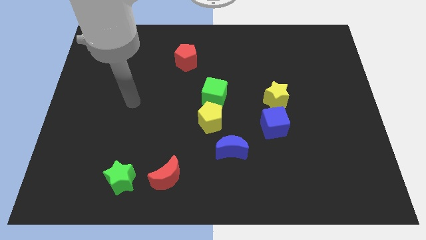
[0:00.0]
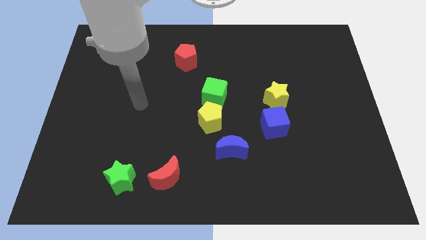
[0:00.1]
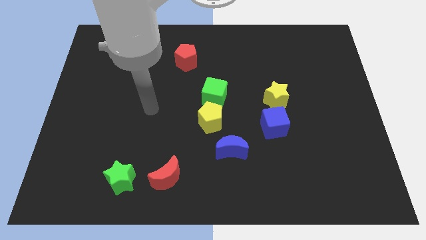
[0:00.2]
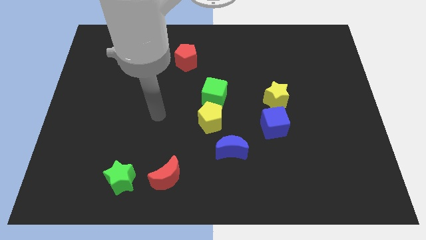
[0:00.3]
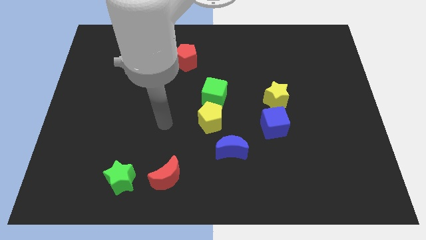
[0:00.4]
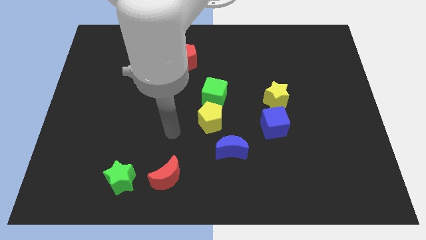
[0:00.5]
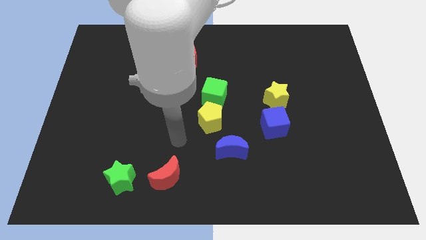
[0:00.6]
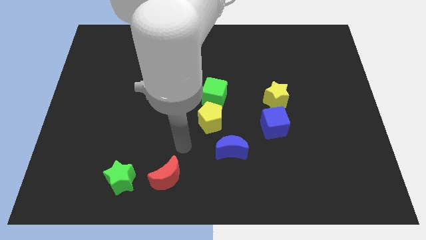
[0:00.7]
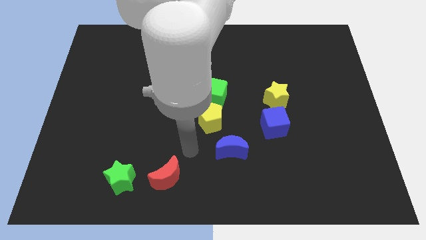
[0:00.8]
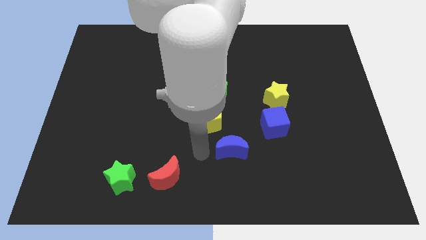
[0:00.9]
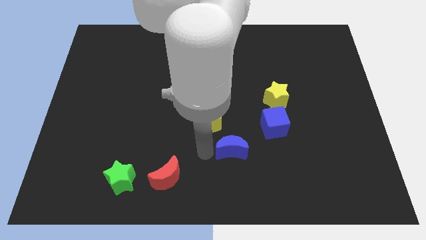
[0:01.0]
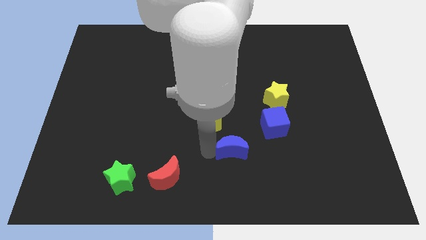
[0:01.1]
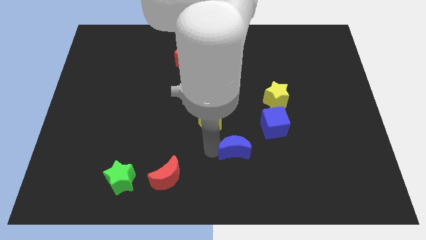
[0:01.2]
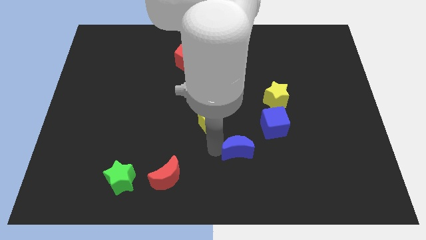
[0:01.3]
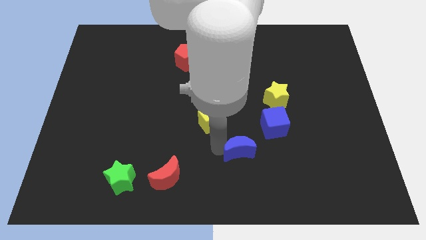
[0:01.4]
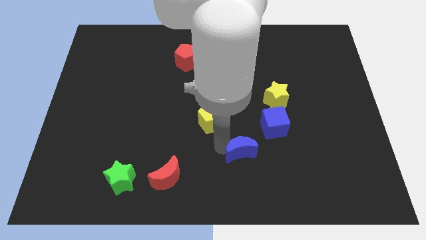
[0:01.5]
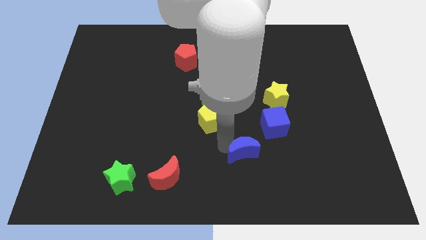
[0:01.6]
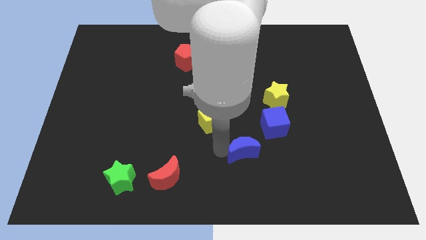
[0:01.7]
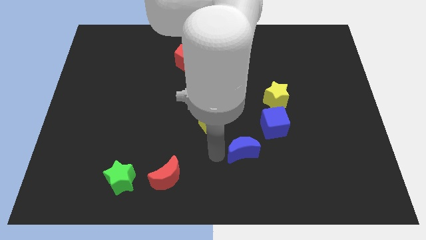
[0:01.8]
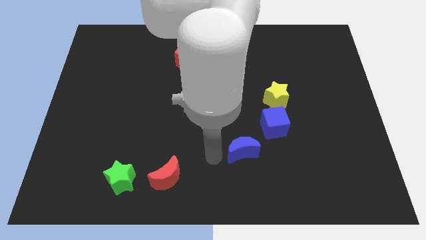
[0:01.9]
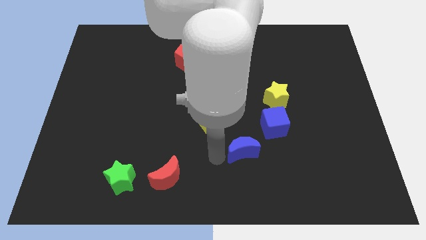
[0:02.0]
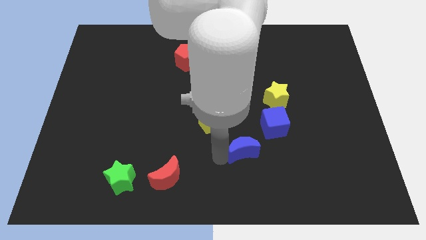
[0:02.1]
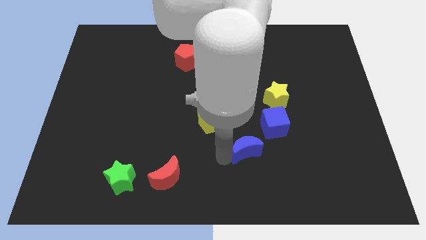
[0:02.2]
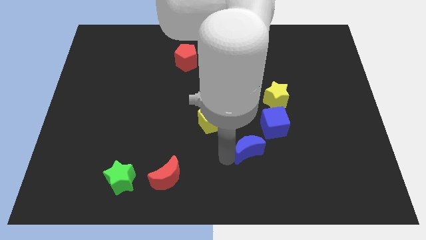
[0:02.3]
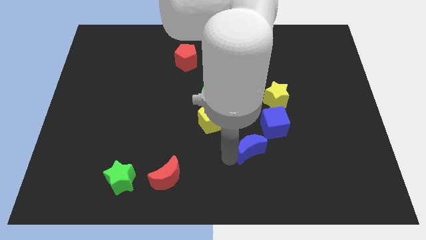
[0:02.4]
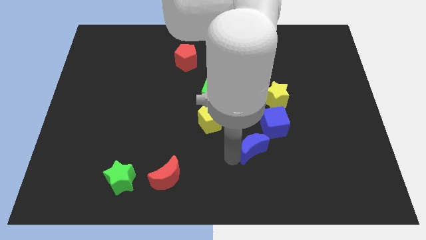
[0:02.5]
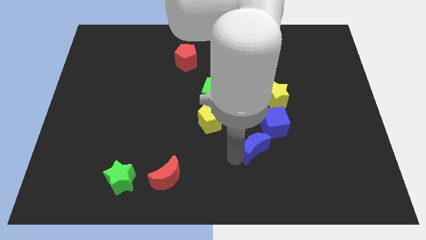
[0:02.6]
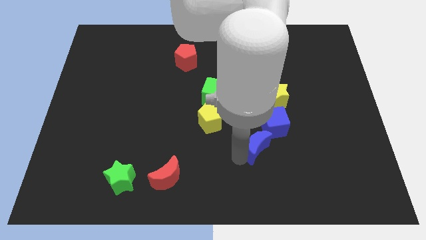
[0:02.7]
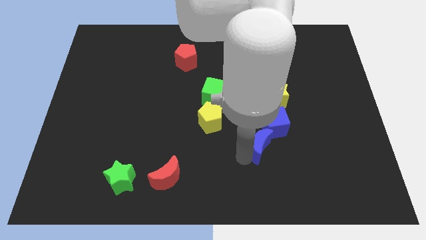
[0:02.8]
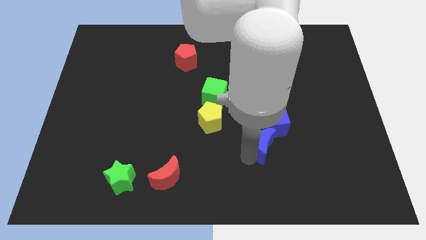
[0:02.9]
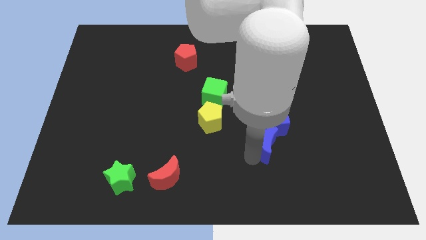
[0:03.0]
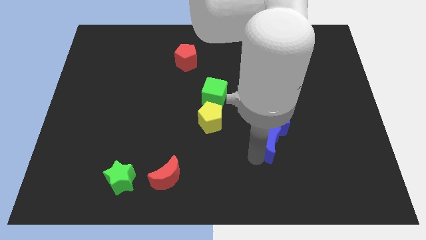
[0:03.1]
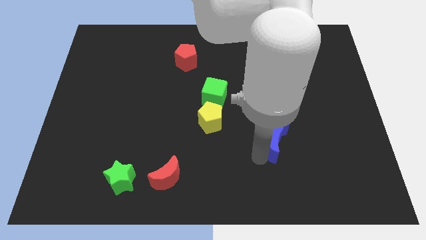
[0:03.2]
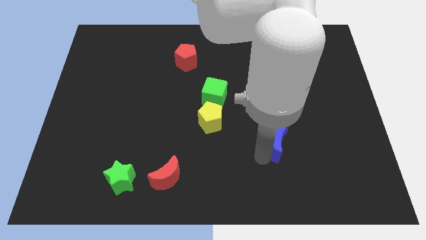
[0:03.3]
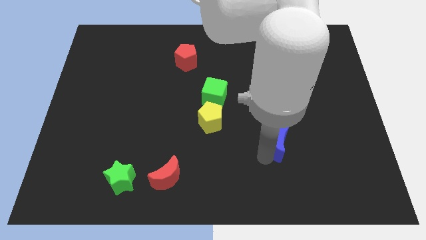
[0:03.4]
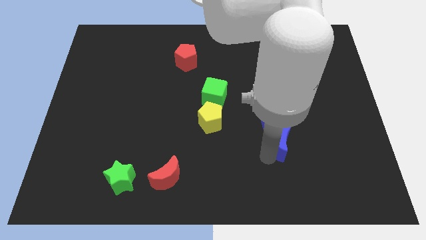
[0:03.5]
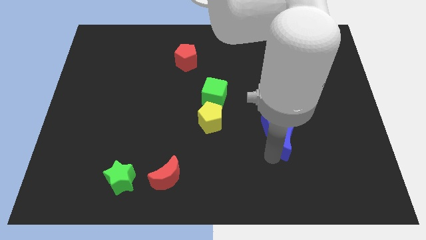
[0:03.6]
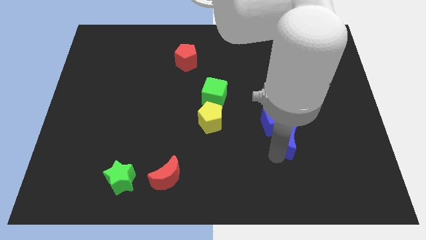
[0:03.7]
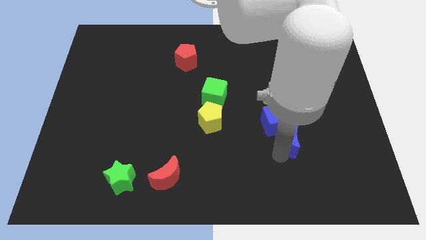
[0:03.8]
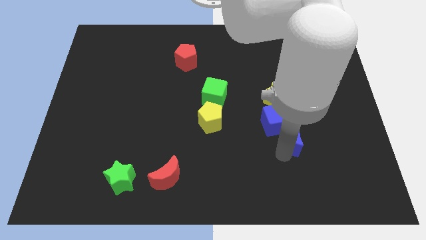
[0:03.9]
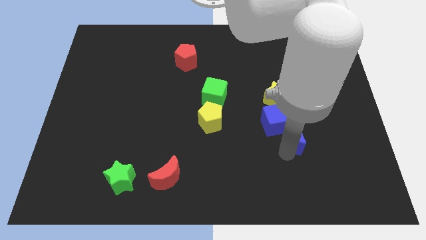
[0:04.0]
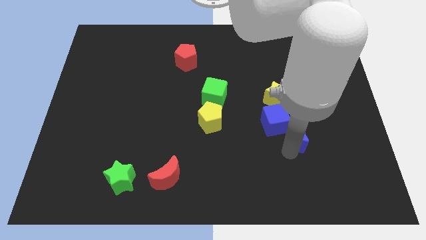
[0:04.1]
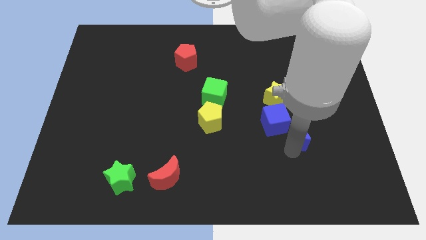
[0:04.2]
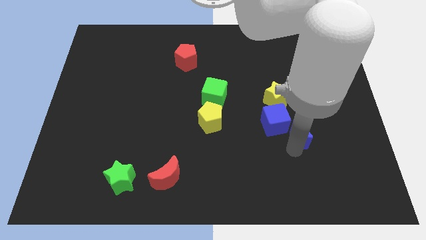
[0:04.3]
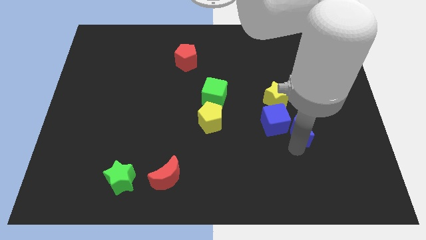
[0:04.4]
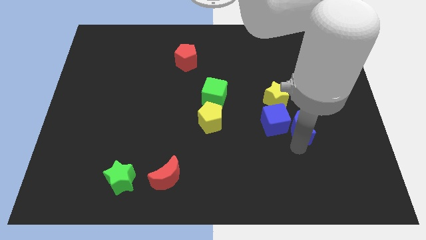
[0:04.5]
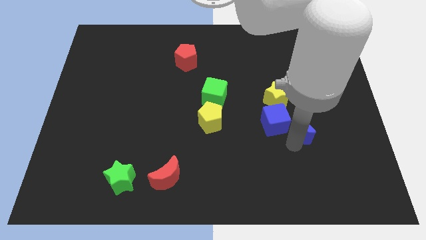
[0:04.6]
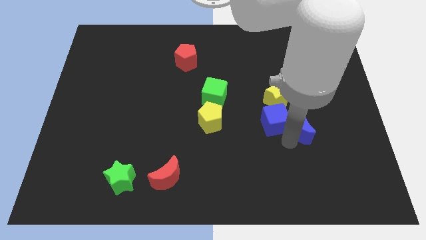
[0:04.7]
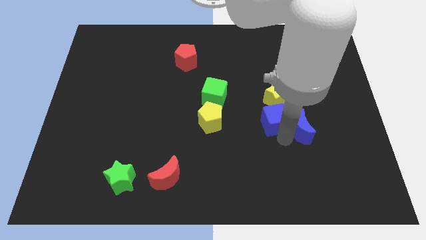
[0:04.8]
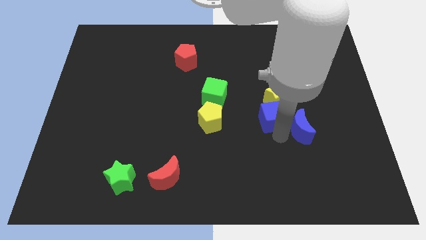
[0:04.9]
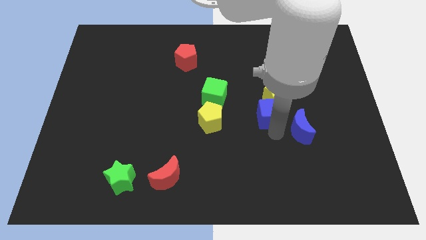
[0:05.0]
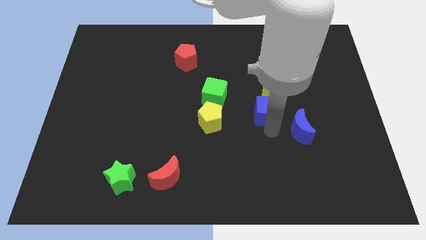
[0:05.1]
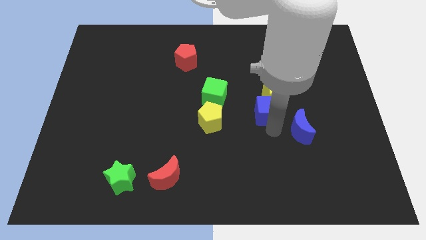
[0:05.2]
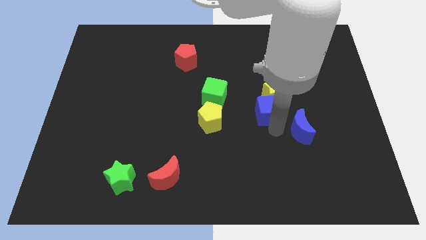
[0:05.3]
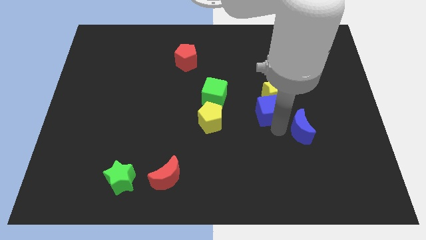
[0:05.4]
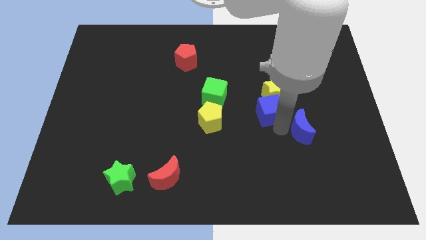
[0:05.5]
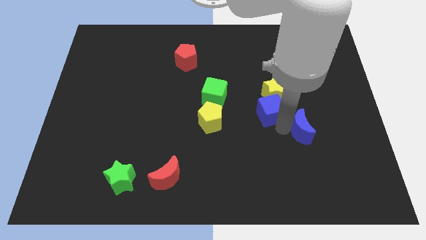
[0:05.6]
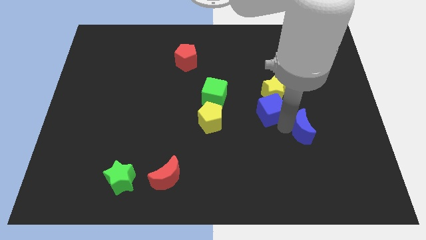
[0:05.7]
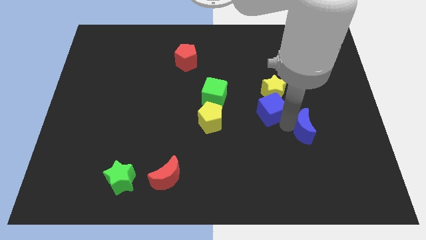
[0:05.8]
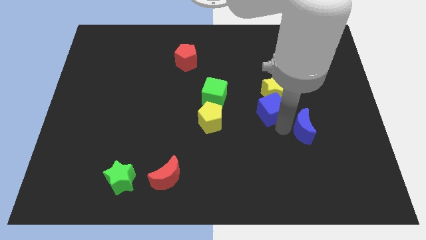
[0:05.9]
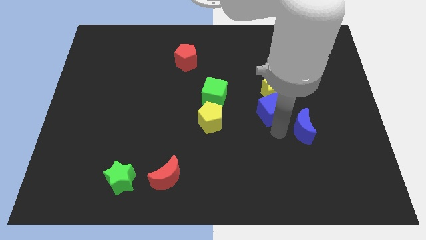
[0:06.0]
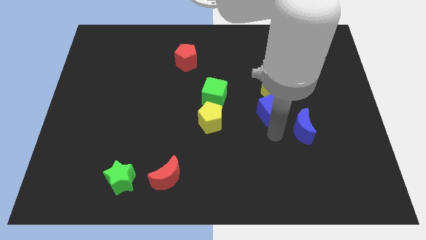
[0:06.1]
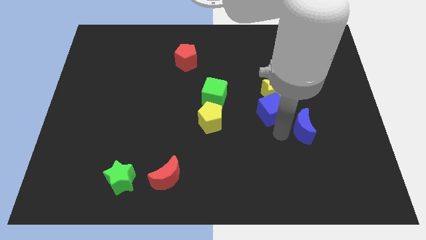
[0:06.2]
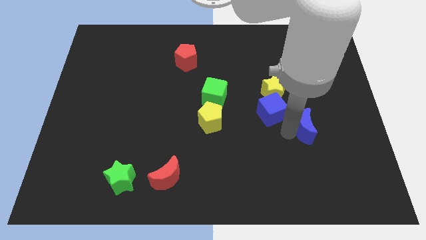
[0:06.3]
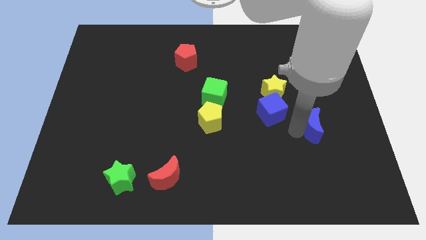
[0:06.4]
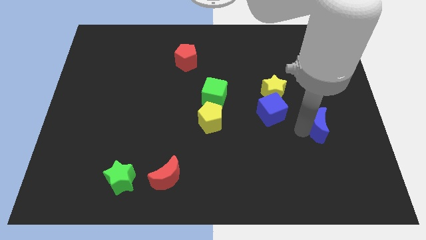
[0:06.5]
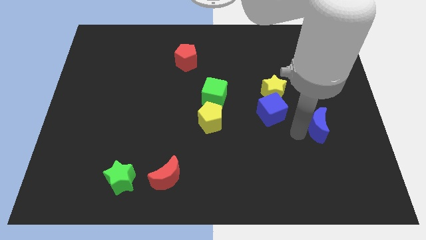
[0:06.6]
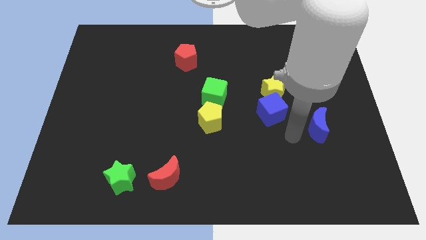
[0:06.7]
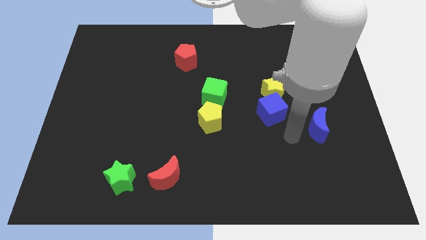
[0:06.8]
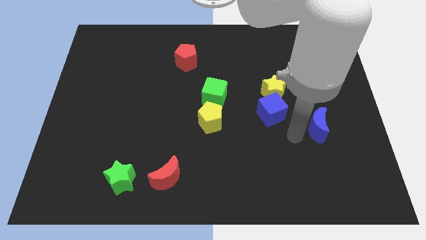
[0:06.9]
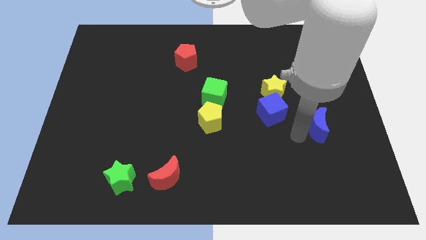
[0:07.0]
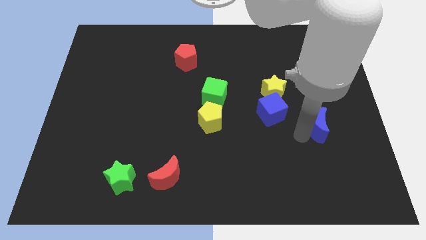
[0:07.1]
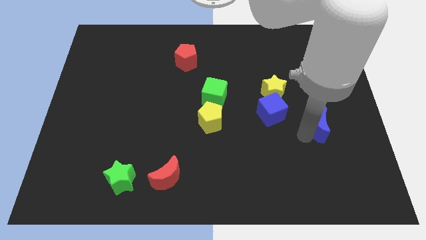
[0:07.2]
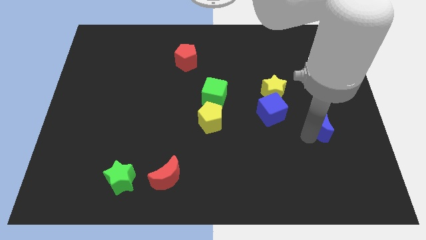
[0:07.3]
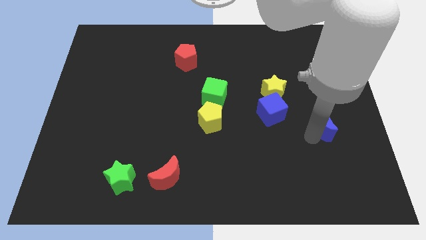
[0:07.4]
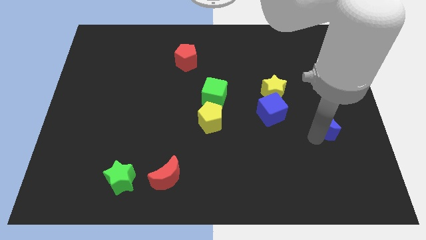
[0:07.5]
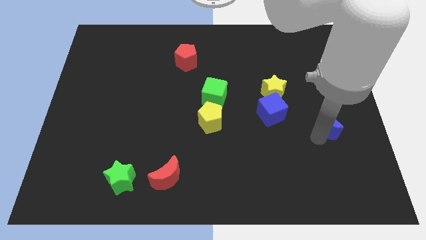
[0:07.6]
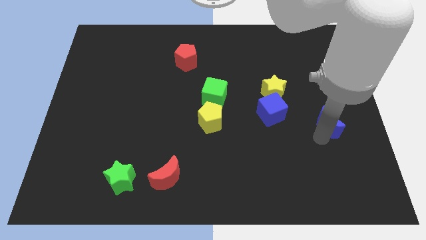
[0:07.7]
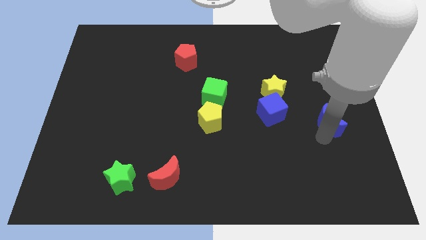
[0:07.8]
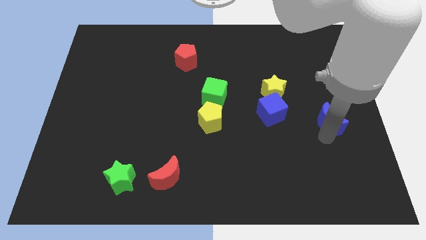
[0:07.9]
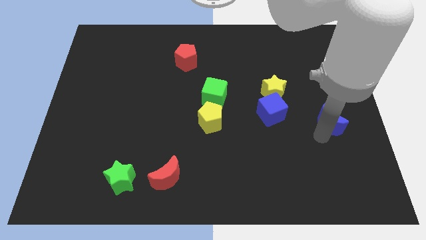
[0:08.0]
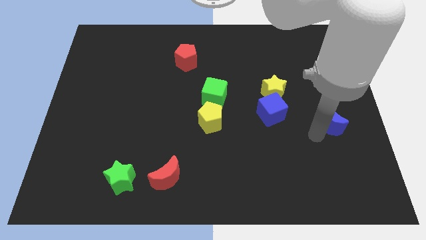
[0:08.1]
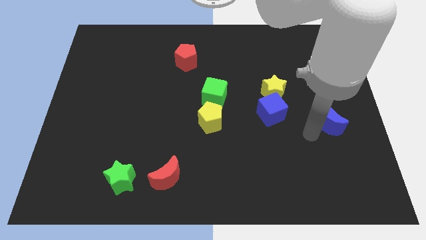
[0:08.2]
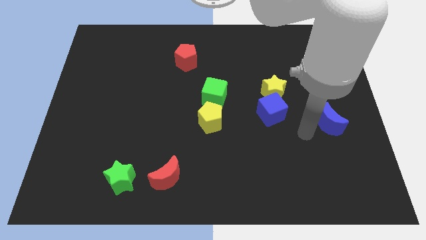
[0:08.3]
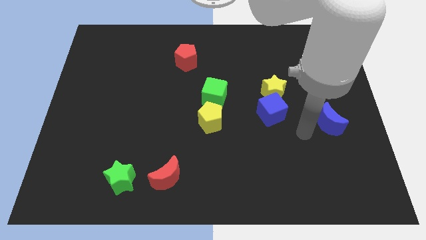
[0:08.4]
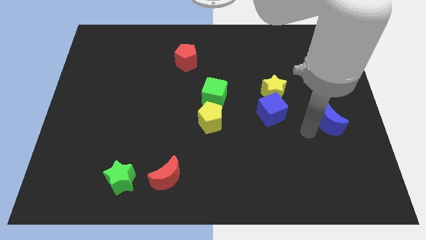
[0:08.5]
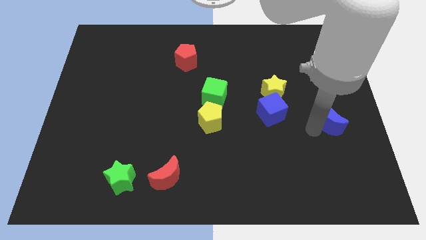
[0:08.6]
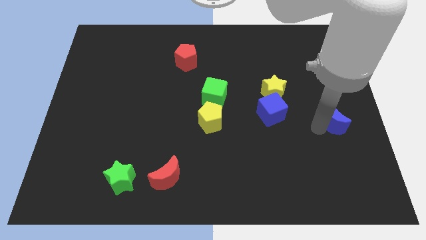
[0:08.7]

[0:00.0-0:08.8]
put the blue moon to the right side
